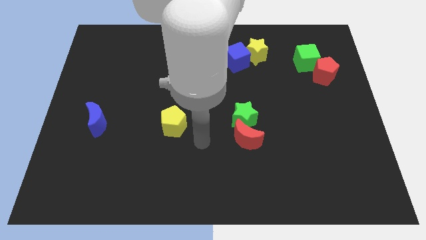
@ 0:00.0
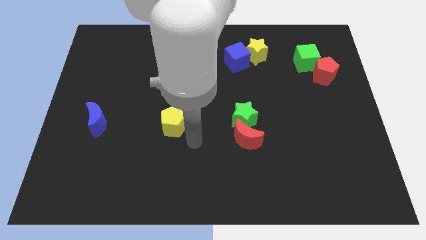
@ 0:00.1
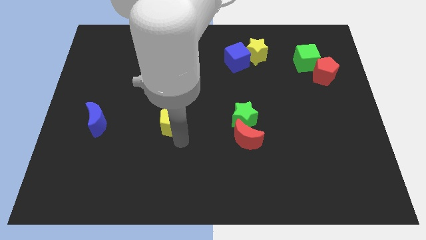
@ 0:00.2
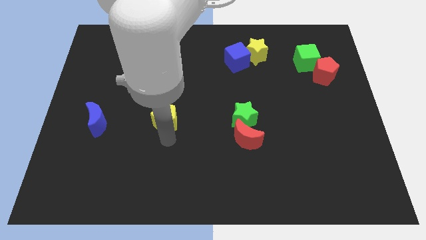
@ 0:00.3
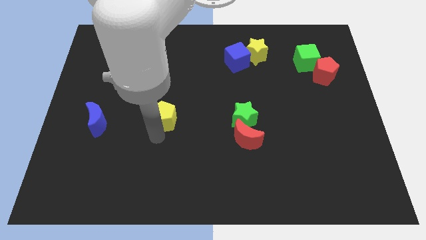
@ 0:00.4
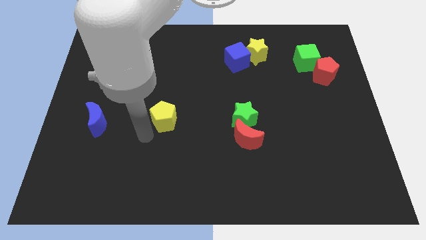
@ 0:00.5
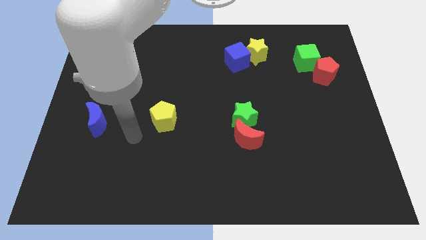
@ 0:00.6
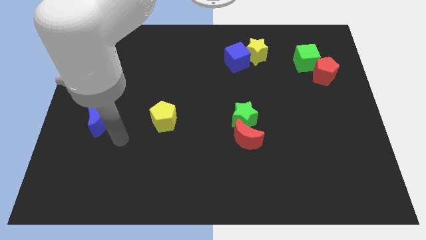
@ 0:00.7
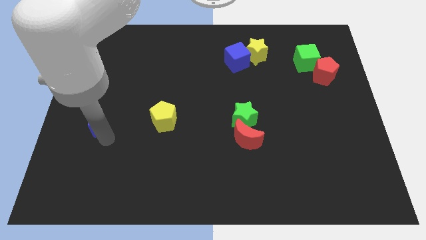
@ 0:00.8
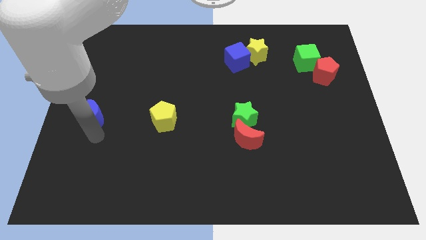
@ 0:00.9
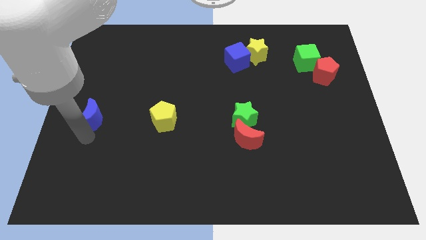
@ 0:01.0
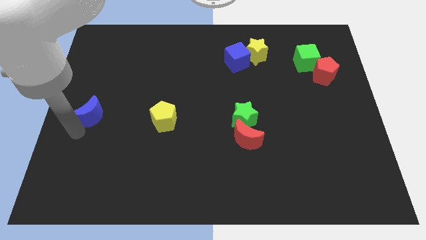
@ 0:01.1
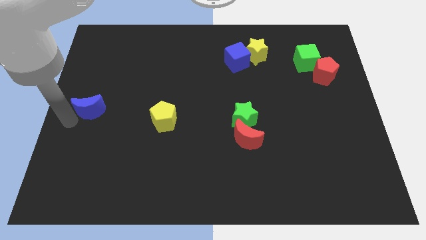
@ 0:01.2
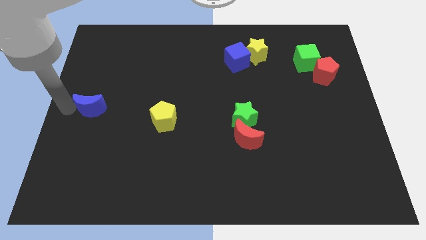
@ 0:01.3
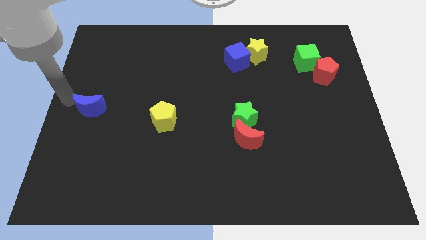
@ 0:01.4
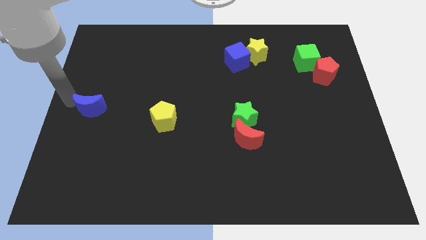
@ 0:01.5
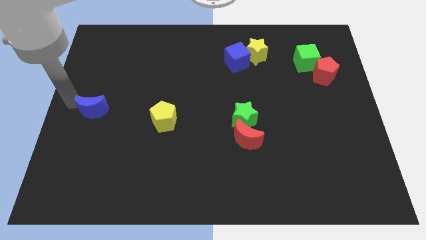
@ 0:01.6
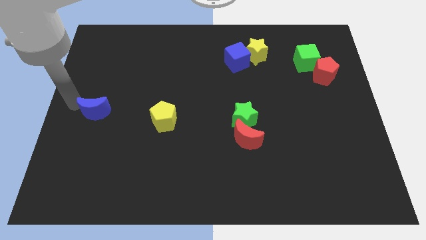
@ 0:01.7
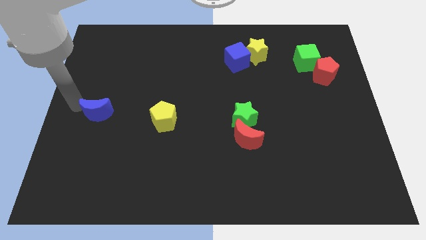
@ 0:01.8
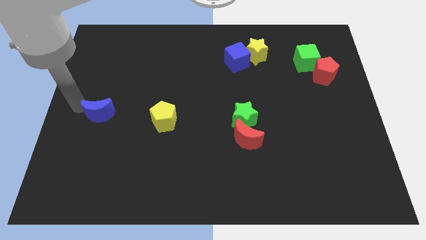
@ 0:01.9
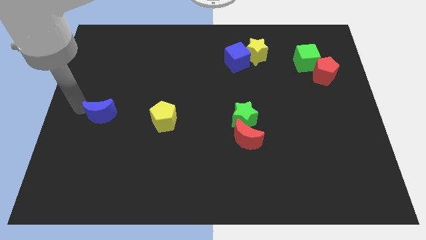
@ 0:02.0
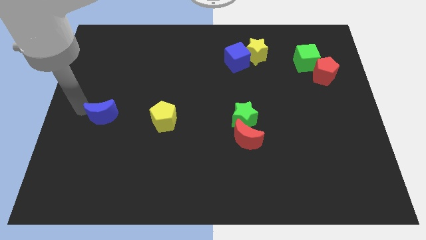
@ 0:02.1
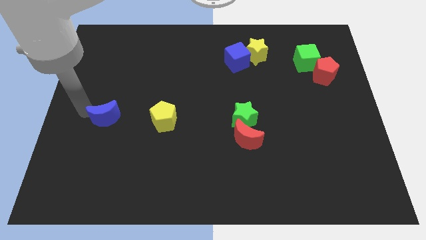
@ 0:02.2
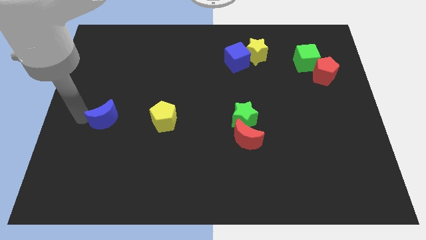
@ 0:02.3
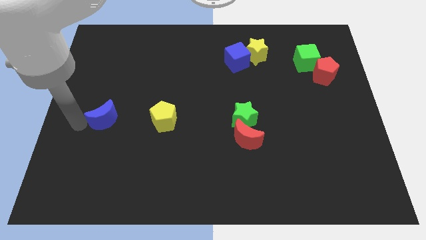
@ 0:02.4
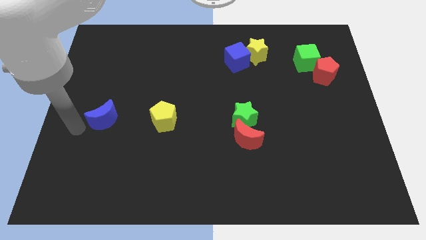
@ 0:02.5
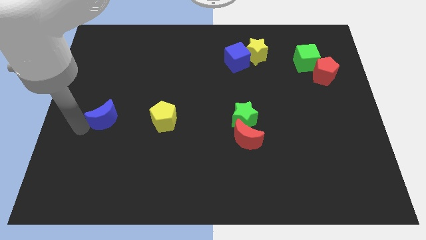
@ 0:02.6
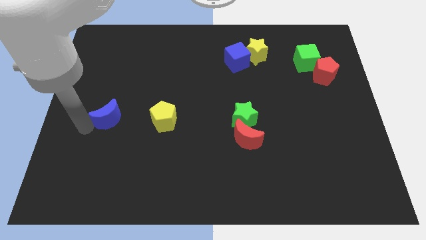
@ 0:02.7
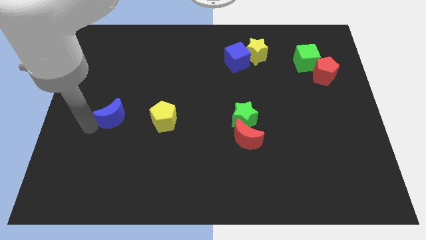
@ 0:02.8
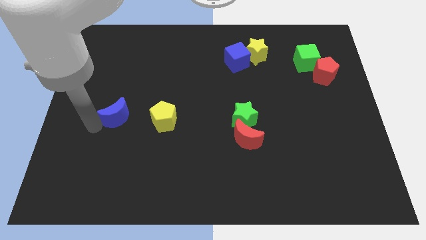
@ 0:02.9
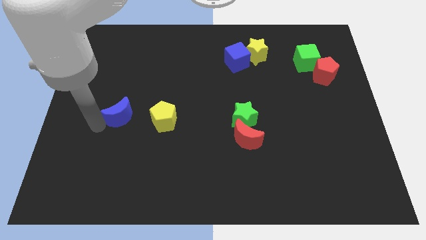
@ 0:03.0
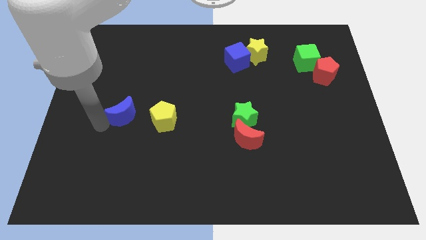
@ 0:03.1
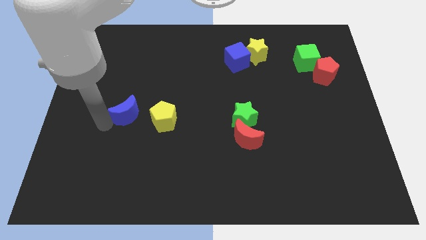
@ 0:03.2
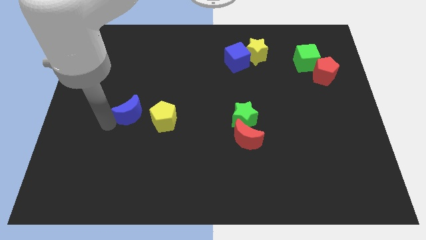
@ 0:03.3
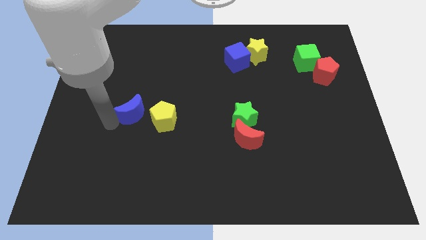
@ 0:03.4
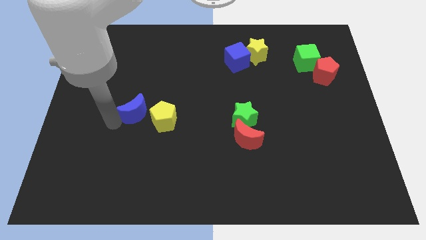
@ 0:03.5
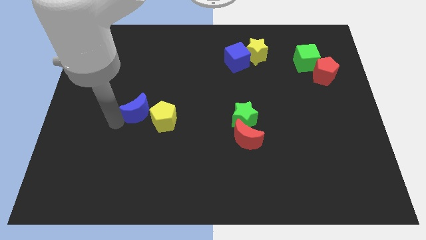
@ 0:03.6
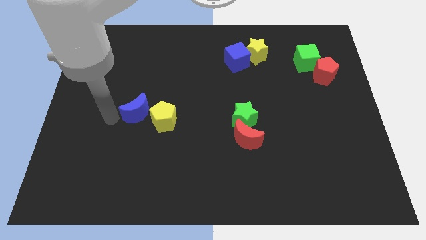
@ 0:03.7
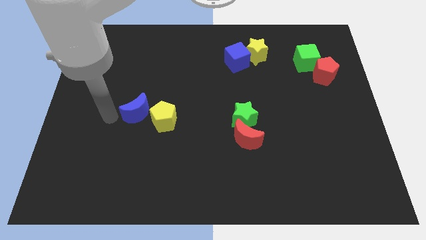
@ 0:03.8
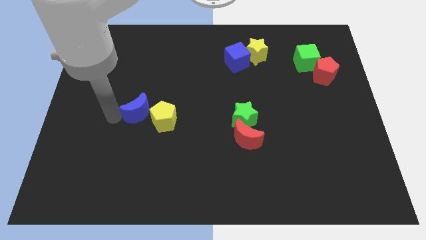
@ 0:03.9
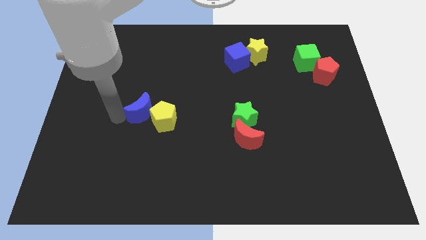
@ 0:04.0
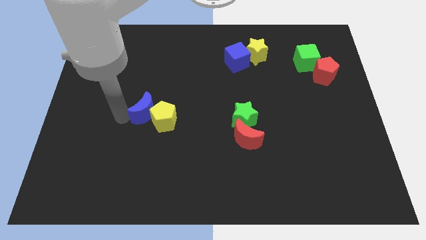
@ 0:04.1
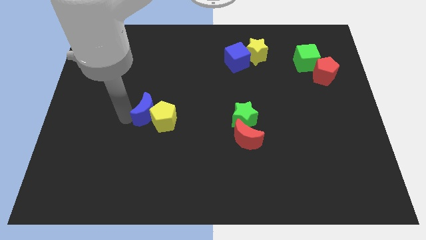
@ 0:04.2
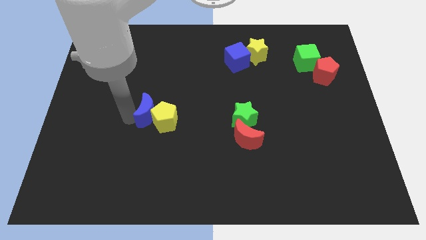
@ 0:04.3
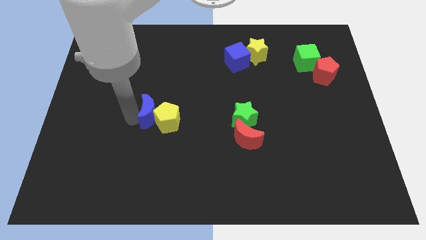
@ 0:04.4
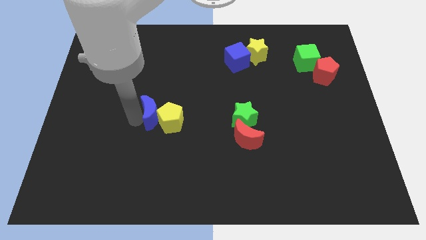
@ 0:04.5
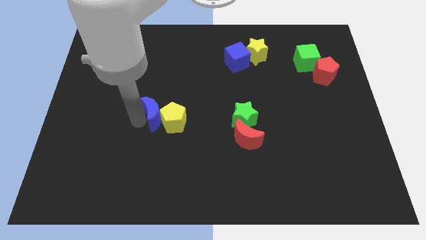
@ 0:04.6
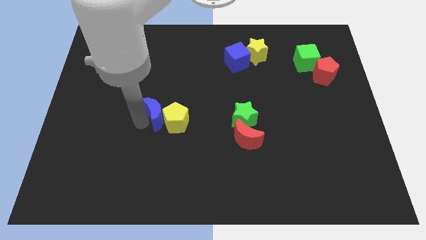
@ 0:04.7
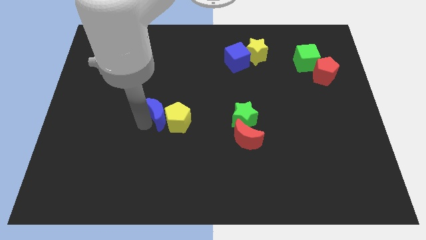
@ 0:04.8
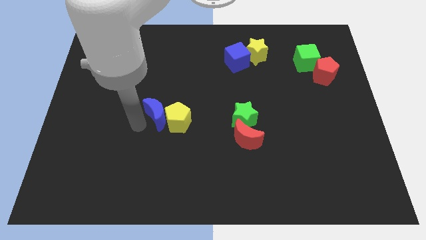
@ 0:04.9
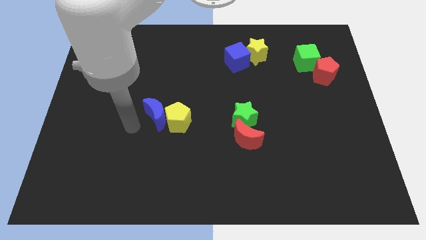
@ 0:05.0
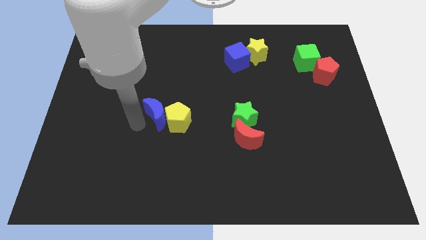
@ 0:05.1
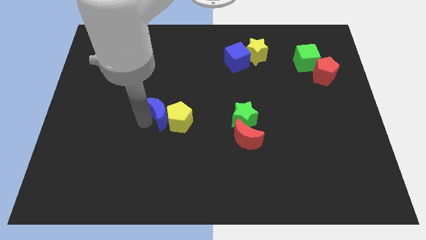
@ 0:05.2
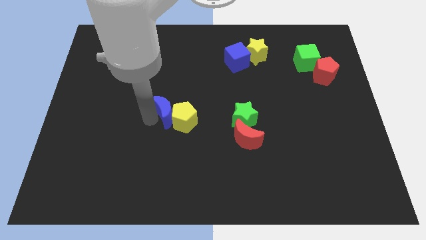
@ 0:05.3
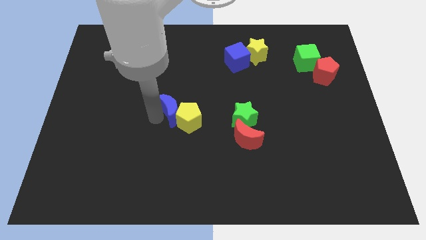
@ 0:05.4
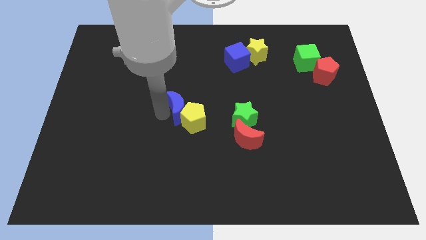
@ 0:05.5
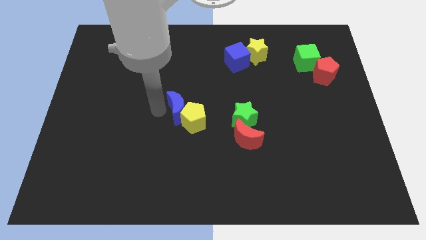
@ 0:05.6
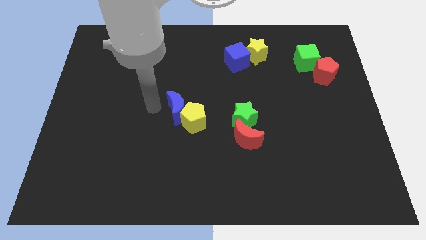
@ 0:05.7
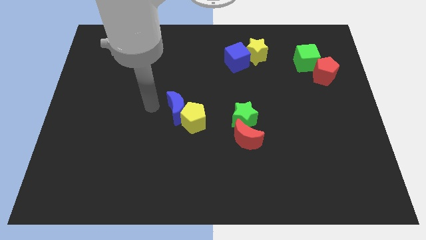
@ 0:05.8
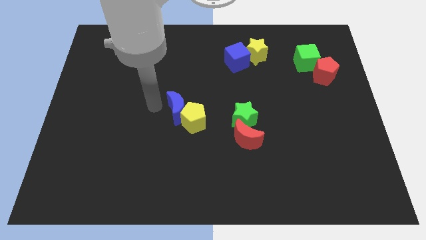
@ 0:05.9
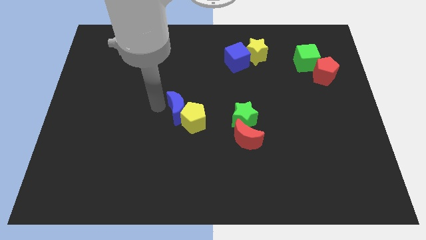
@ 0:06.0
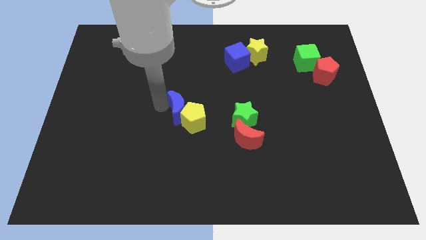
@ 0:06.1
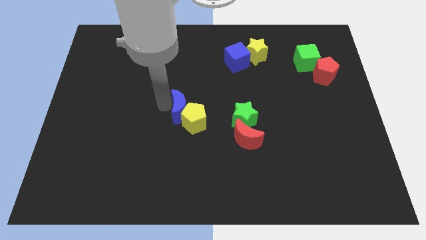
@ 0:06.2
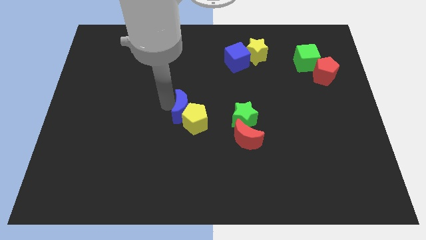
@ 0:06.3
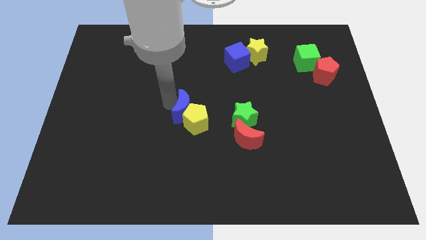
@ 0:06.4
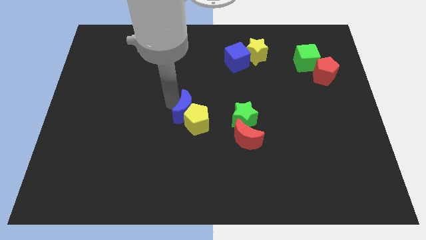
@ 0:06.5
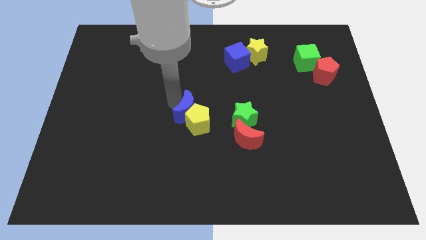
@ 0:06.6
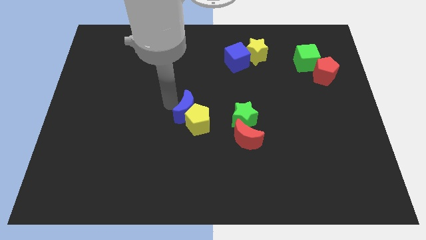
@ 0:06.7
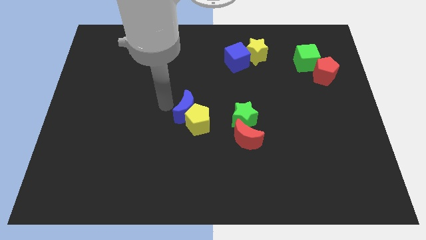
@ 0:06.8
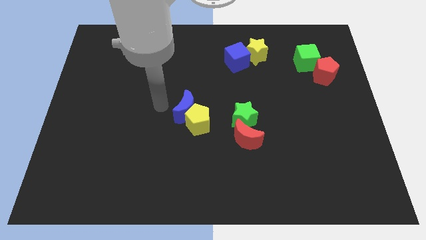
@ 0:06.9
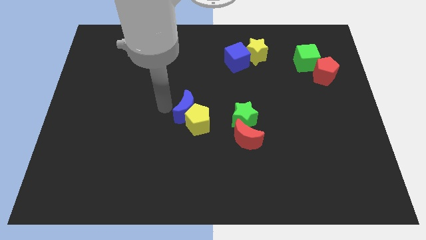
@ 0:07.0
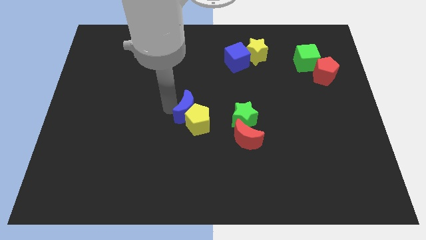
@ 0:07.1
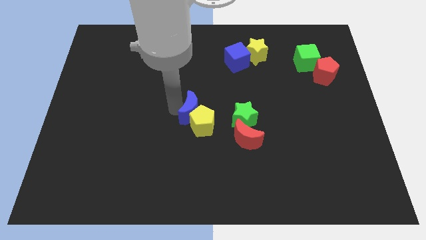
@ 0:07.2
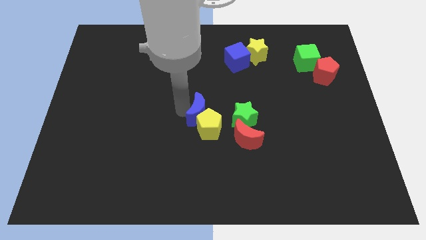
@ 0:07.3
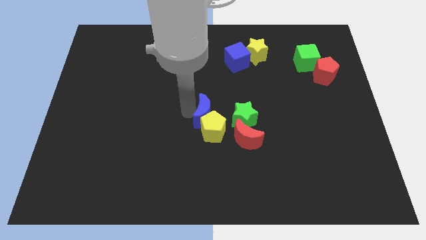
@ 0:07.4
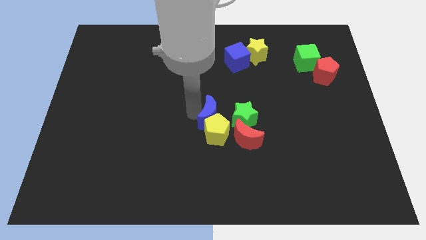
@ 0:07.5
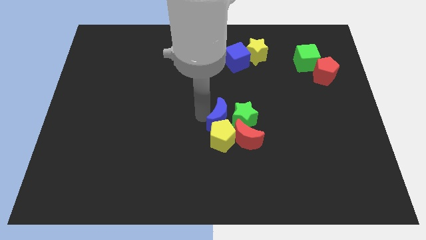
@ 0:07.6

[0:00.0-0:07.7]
push the blue moon towards the green star
